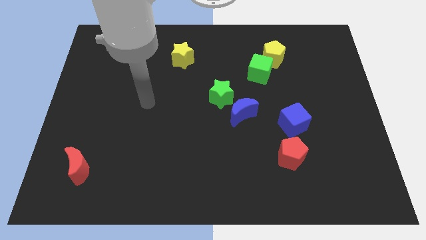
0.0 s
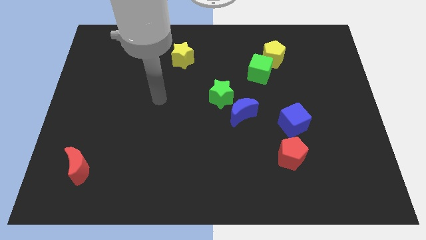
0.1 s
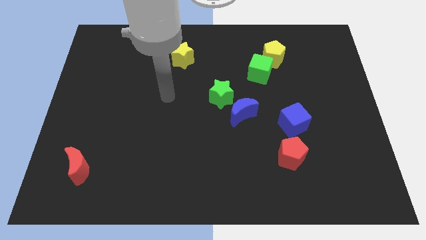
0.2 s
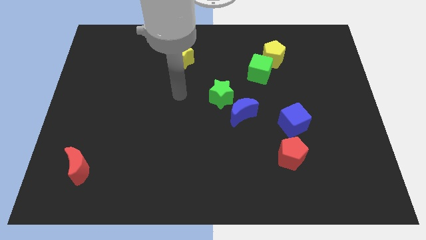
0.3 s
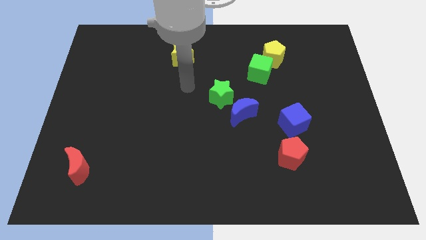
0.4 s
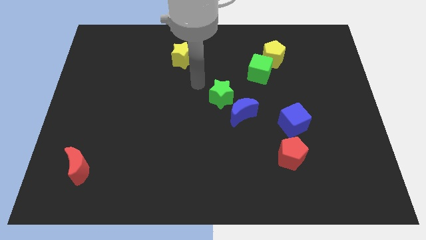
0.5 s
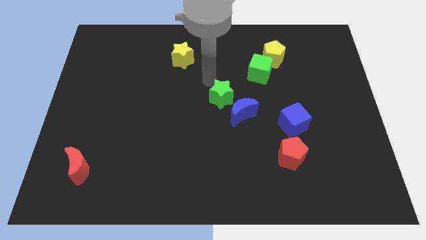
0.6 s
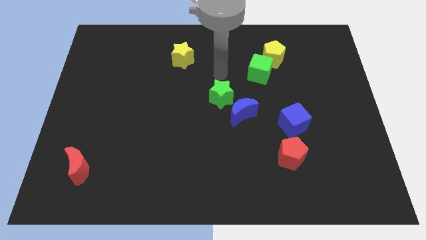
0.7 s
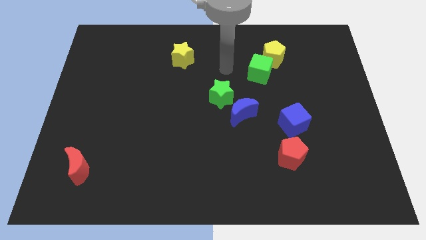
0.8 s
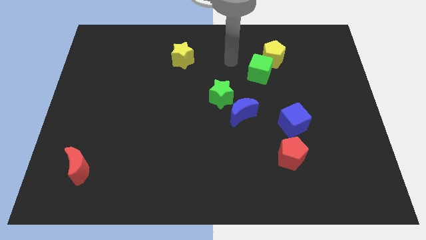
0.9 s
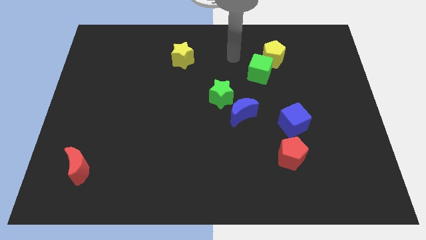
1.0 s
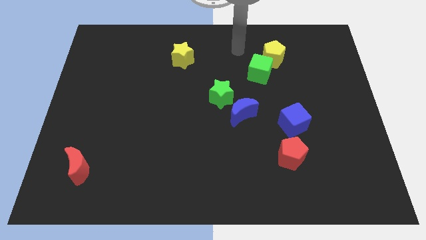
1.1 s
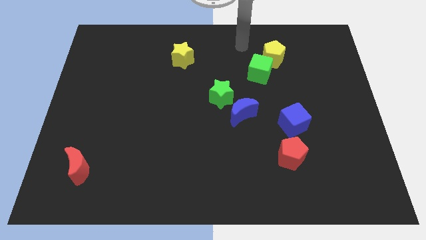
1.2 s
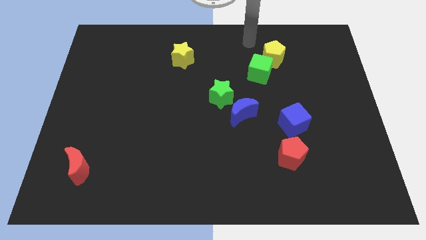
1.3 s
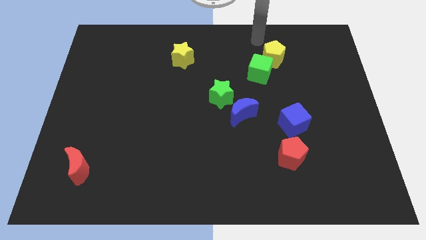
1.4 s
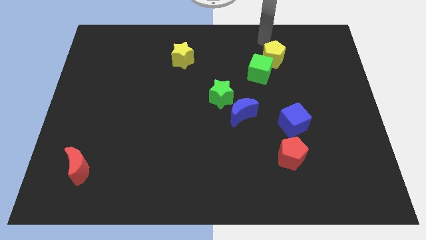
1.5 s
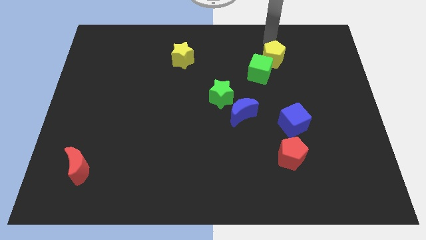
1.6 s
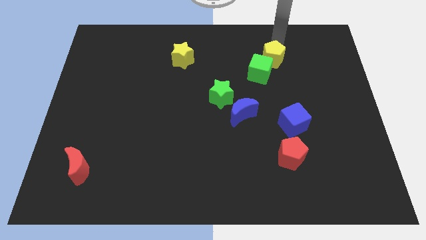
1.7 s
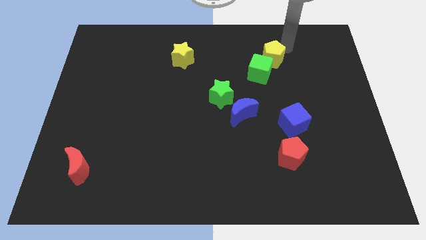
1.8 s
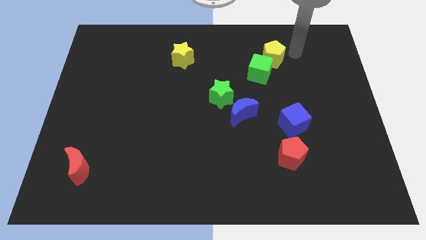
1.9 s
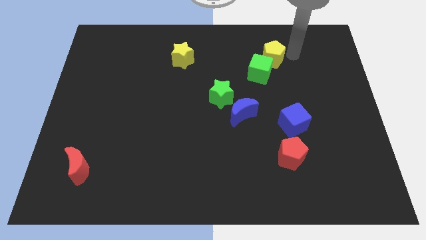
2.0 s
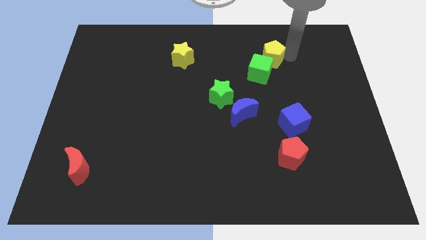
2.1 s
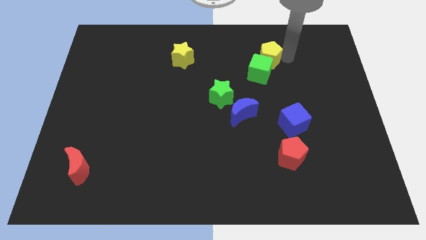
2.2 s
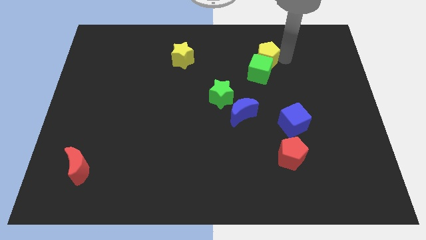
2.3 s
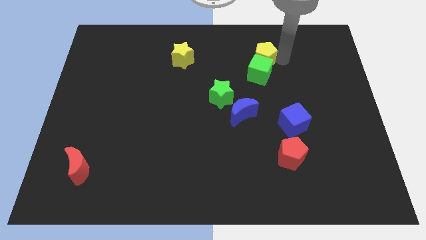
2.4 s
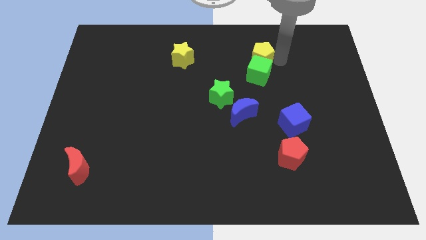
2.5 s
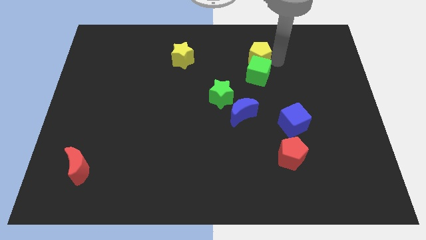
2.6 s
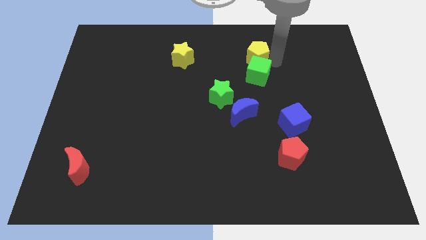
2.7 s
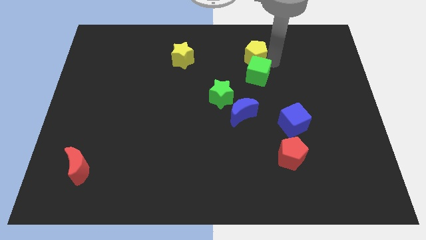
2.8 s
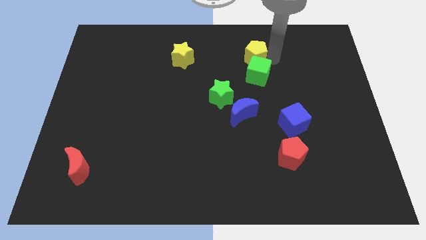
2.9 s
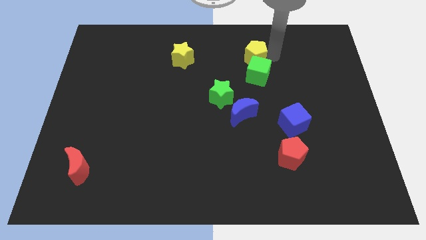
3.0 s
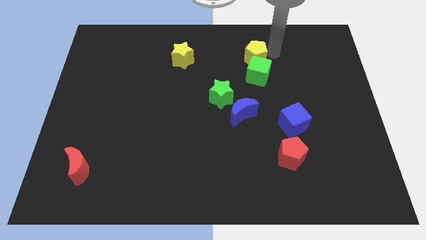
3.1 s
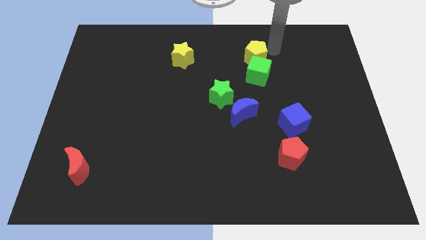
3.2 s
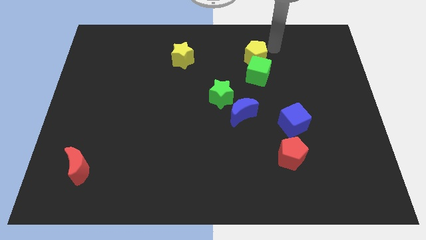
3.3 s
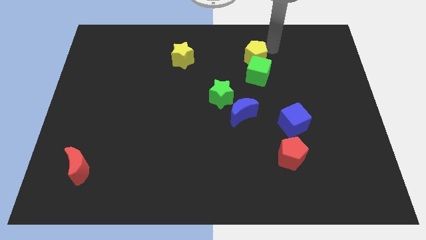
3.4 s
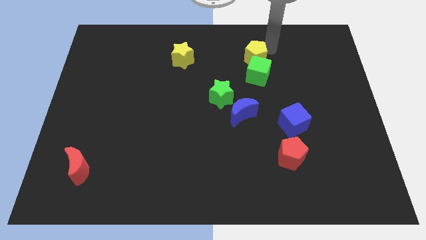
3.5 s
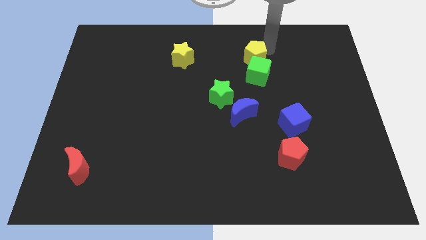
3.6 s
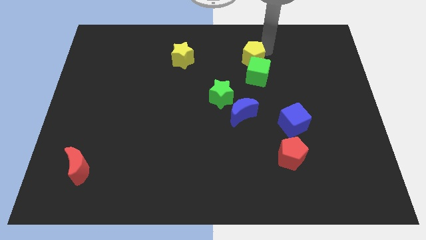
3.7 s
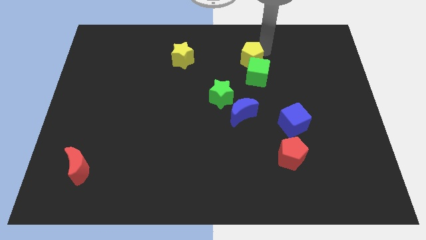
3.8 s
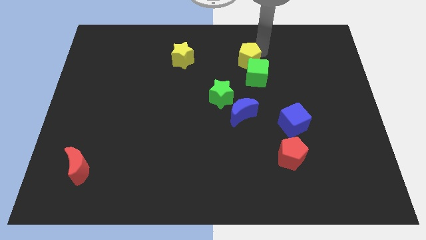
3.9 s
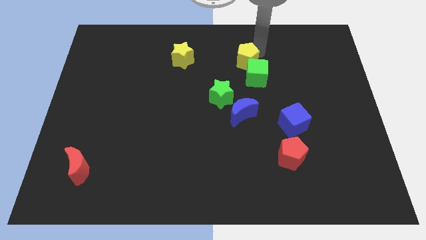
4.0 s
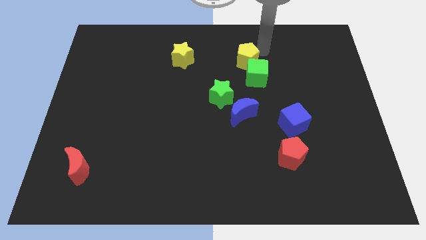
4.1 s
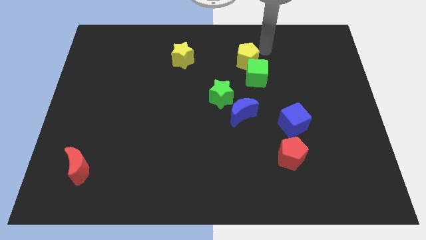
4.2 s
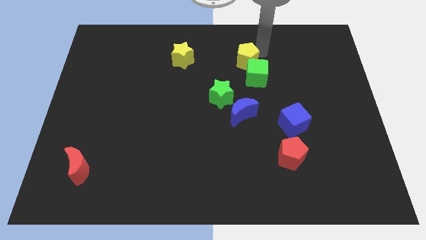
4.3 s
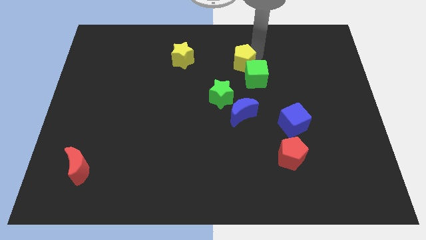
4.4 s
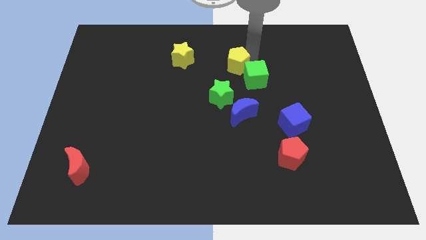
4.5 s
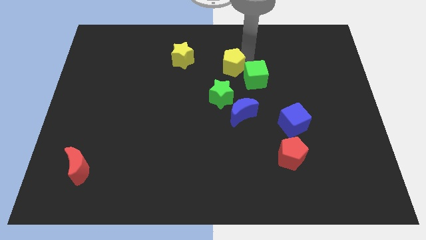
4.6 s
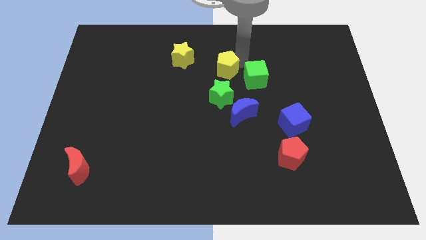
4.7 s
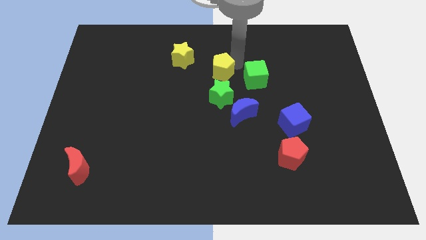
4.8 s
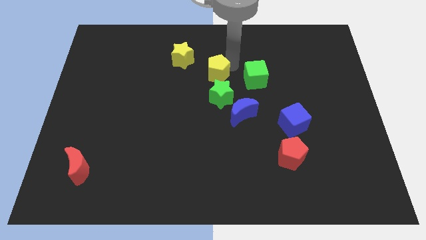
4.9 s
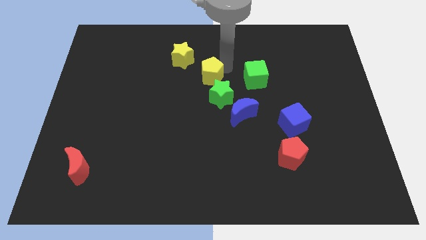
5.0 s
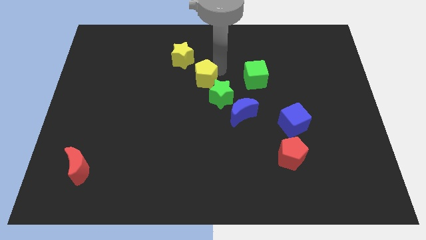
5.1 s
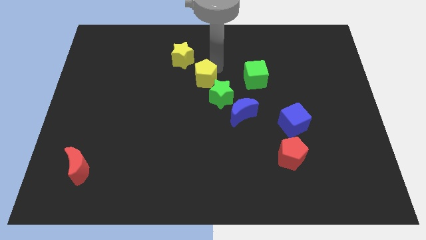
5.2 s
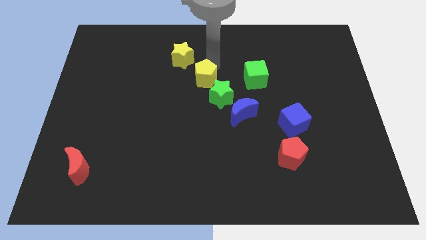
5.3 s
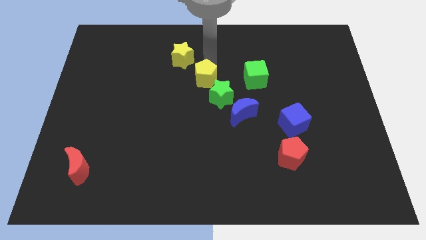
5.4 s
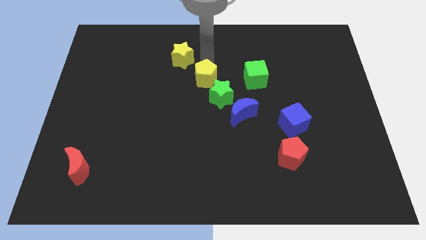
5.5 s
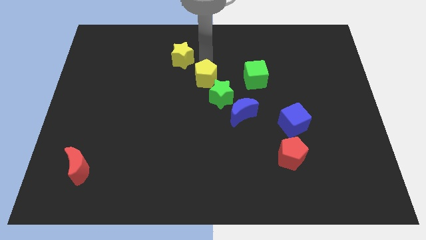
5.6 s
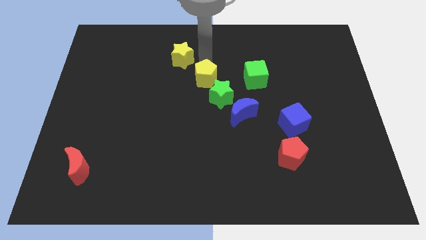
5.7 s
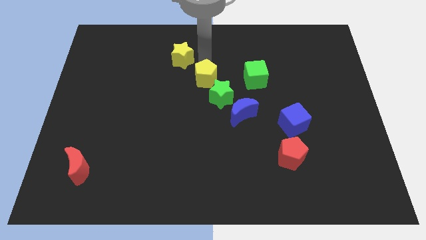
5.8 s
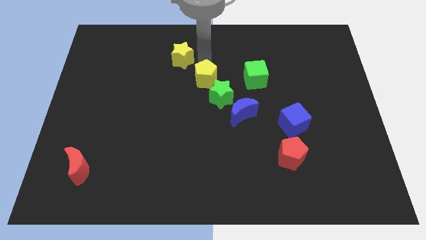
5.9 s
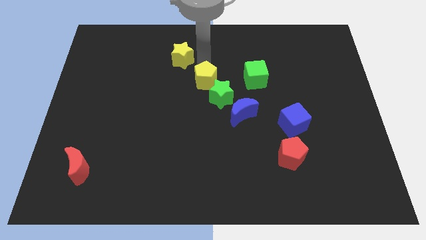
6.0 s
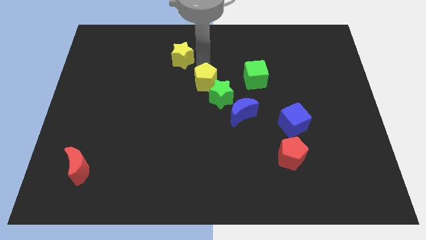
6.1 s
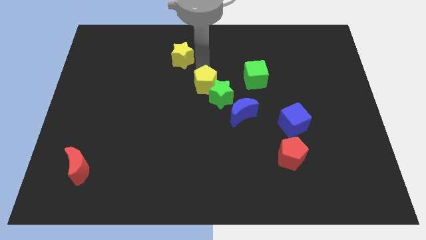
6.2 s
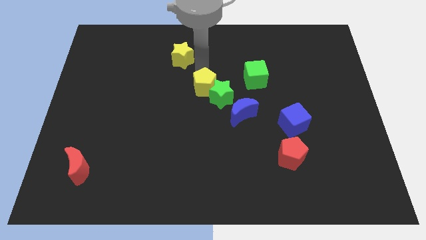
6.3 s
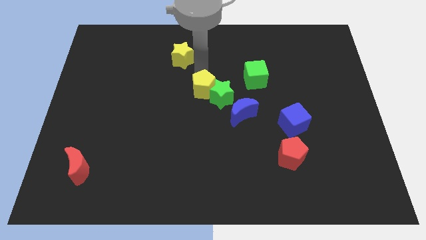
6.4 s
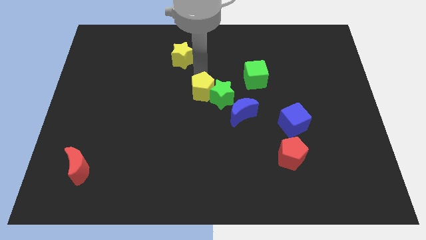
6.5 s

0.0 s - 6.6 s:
push the yellow pentagon down and left diagonally

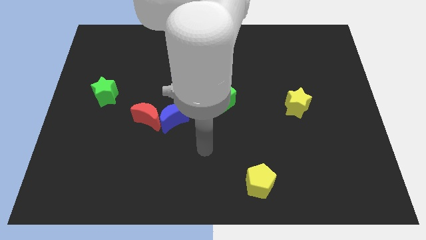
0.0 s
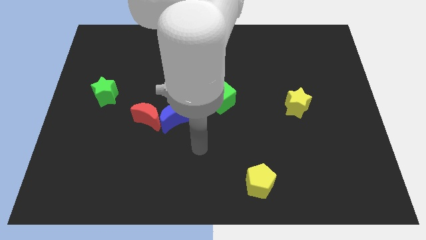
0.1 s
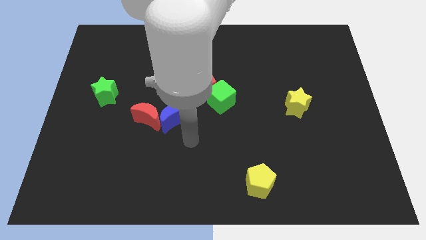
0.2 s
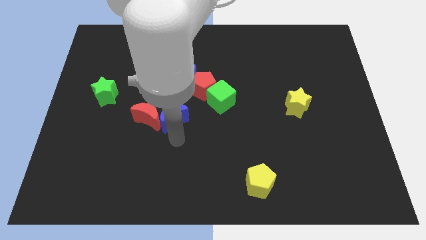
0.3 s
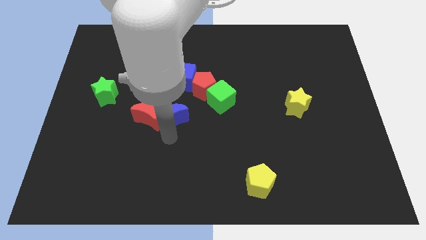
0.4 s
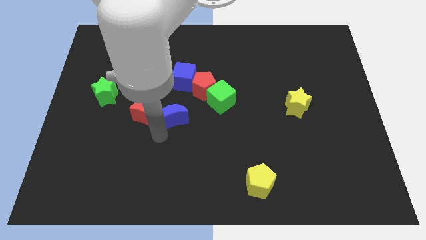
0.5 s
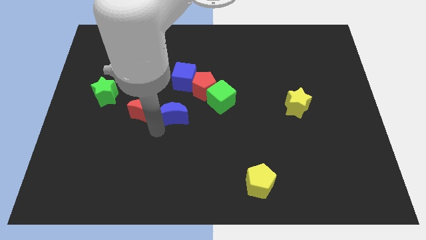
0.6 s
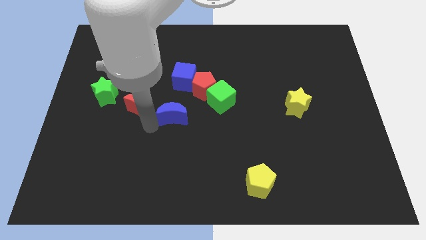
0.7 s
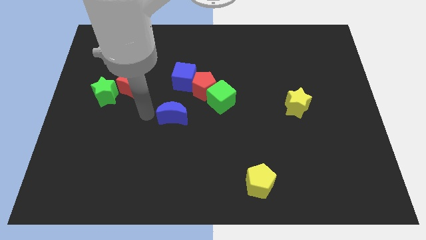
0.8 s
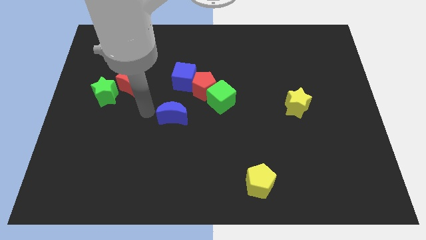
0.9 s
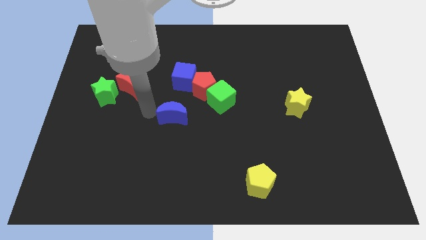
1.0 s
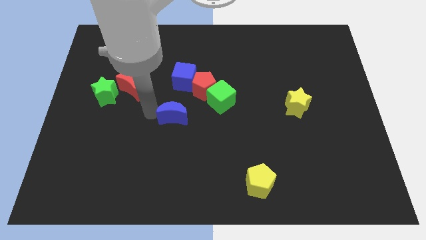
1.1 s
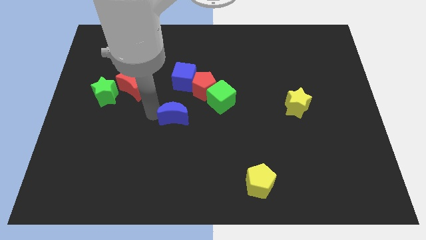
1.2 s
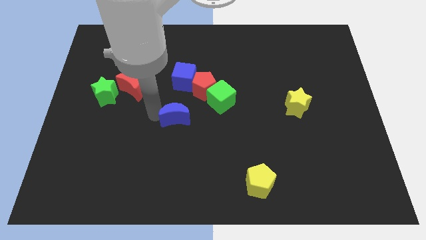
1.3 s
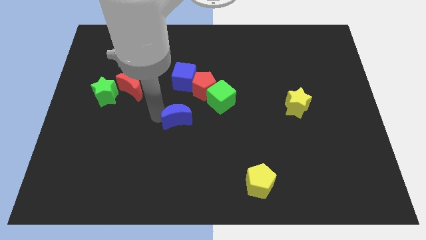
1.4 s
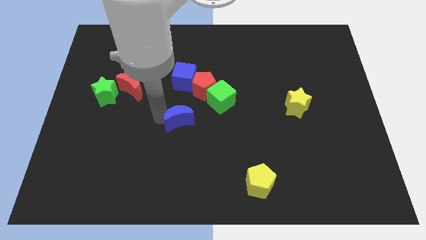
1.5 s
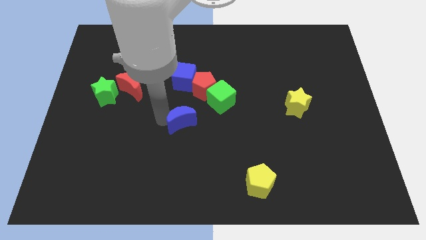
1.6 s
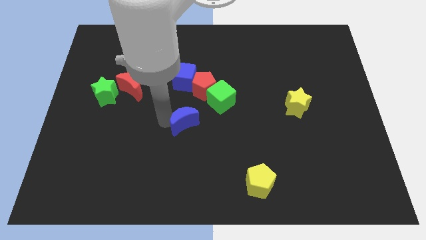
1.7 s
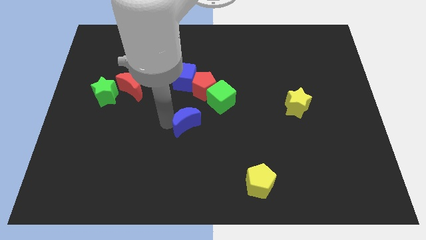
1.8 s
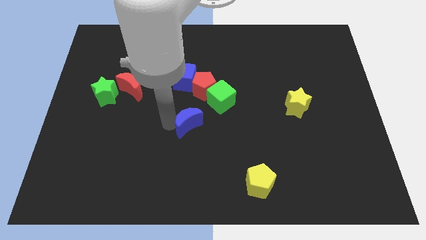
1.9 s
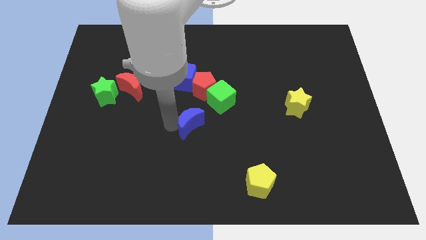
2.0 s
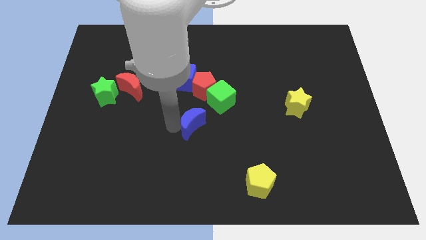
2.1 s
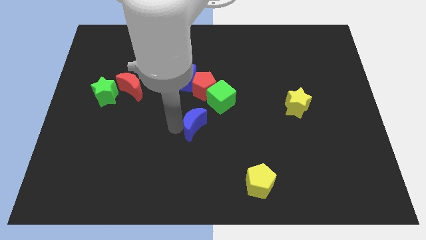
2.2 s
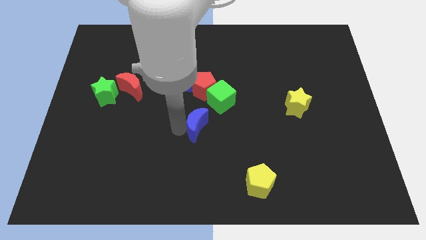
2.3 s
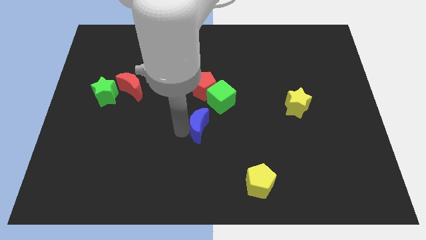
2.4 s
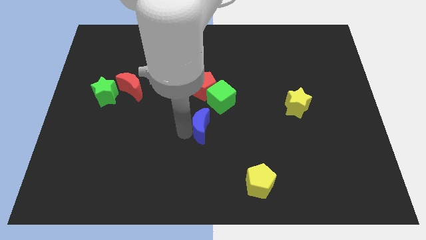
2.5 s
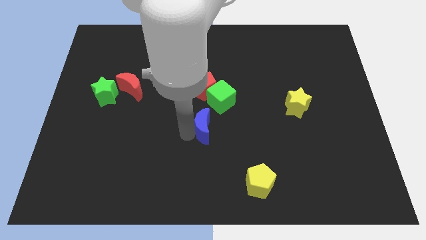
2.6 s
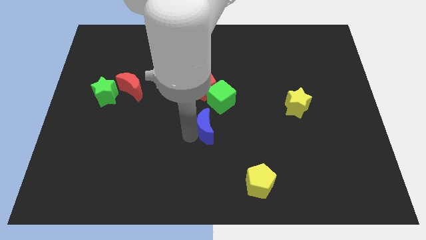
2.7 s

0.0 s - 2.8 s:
slide the blue moon right a little bit
